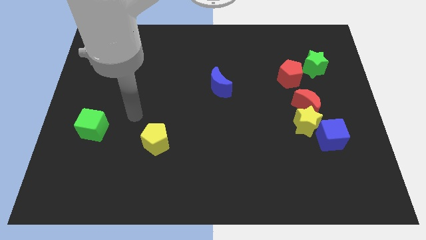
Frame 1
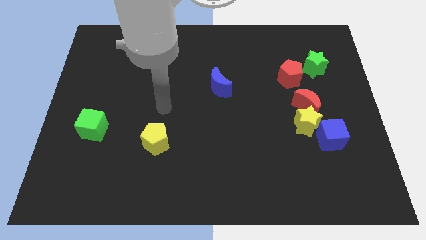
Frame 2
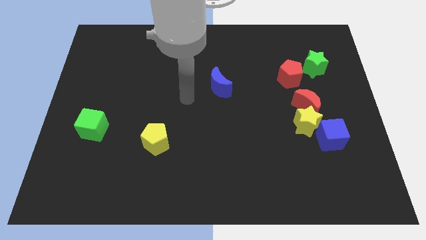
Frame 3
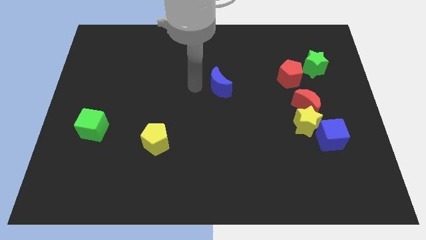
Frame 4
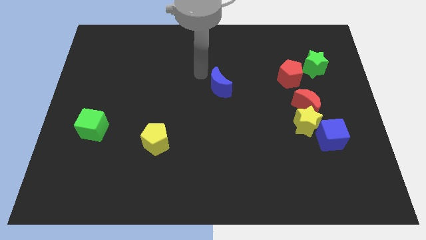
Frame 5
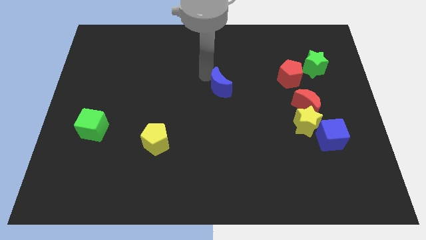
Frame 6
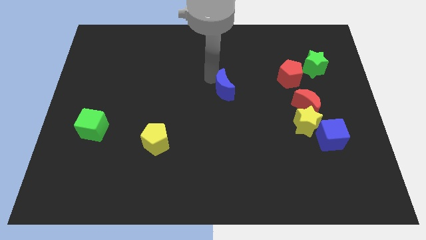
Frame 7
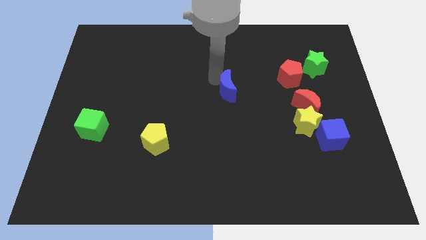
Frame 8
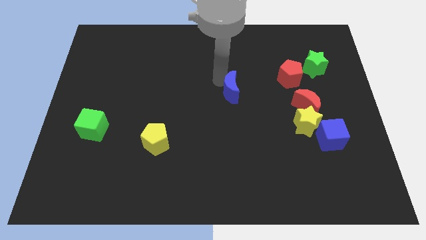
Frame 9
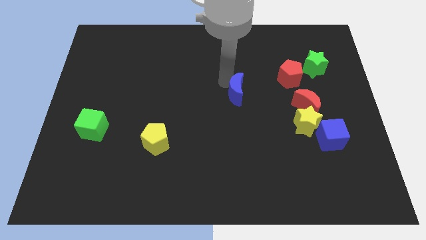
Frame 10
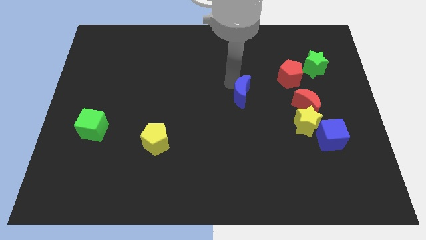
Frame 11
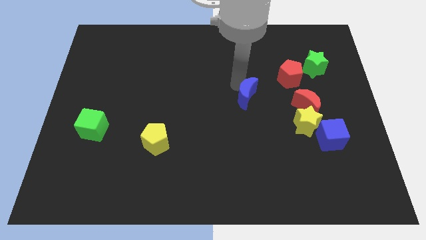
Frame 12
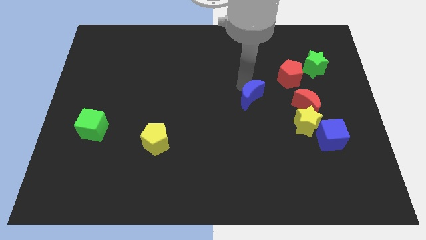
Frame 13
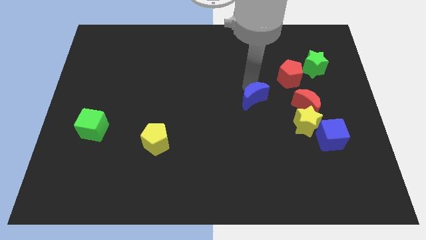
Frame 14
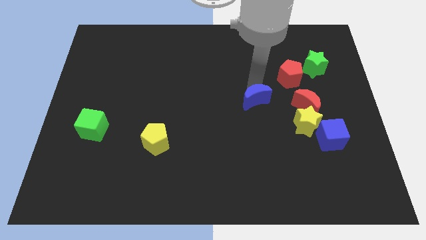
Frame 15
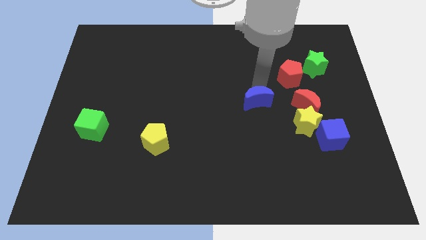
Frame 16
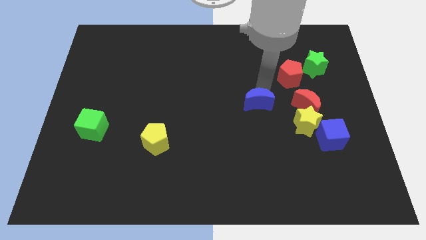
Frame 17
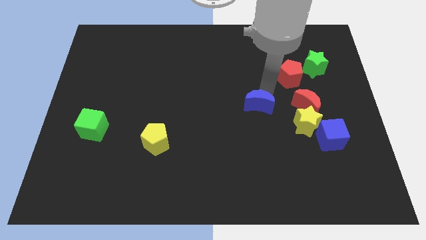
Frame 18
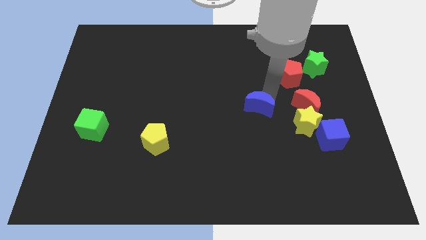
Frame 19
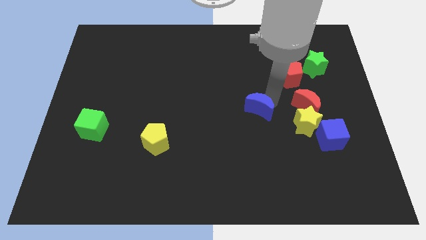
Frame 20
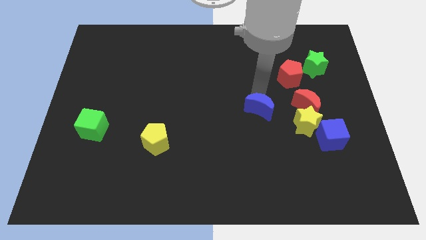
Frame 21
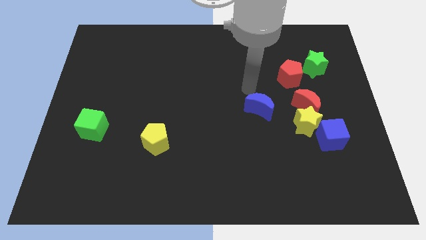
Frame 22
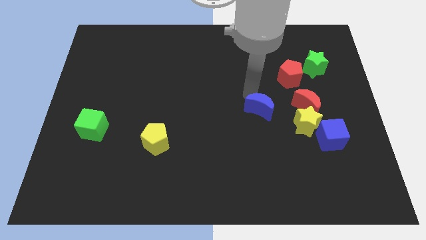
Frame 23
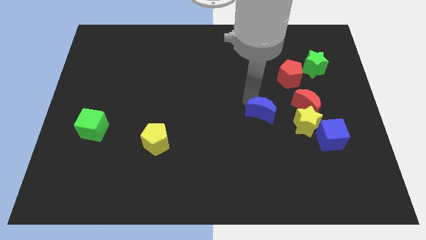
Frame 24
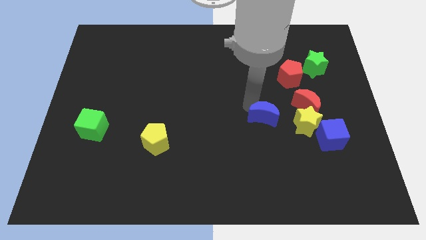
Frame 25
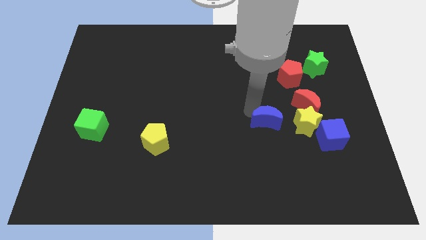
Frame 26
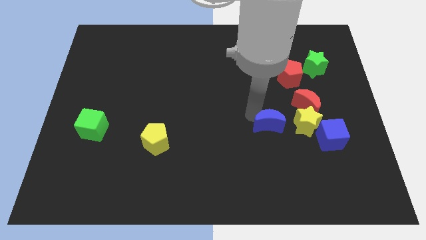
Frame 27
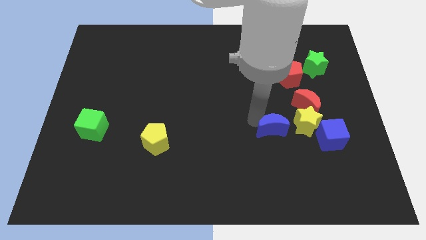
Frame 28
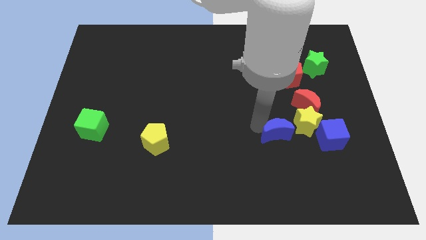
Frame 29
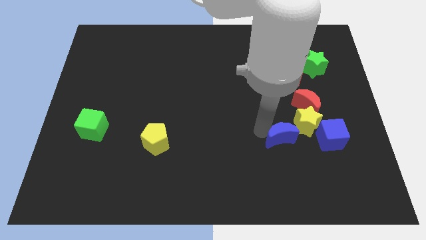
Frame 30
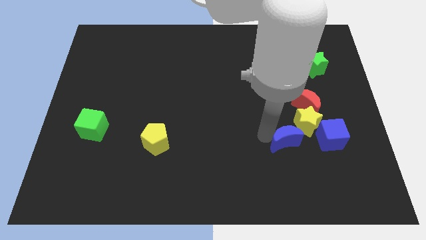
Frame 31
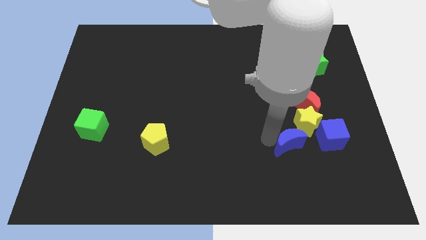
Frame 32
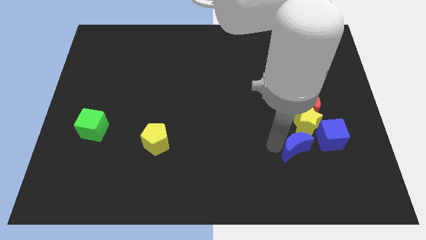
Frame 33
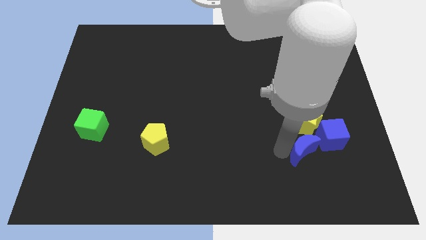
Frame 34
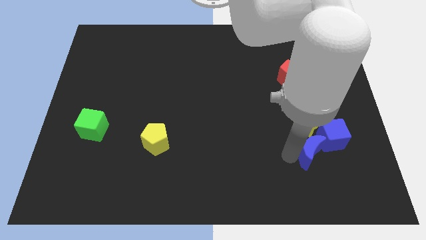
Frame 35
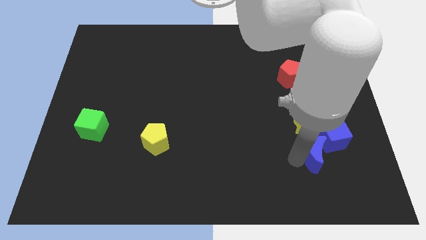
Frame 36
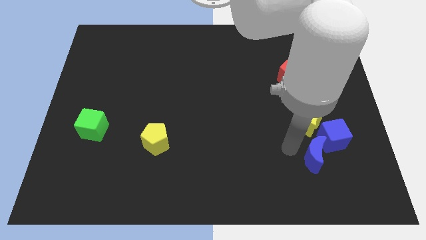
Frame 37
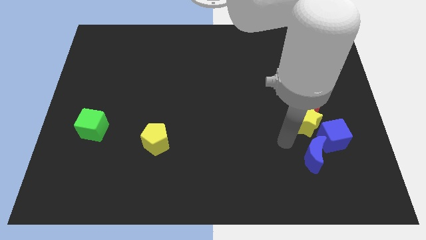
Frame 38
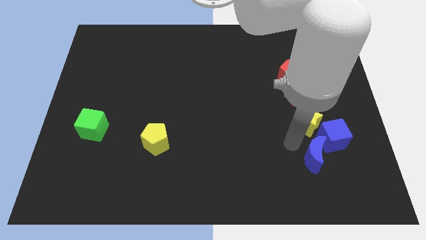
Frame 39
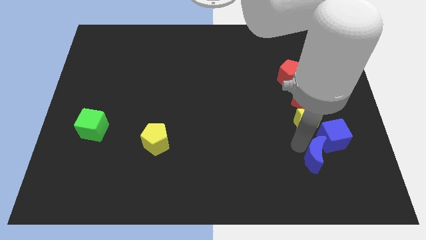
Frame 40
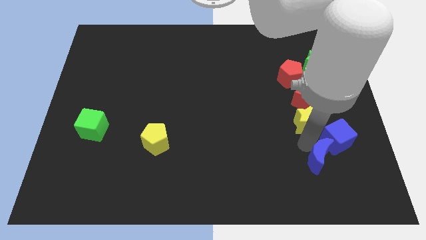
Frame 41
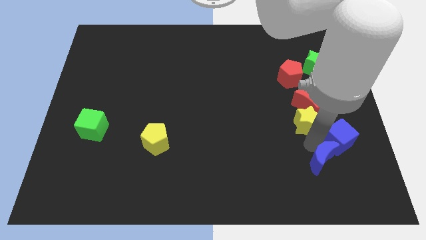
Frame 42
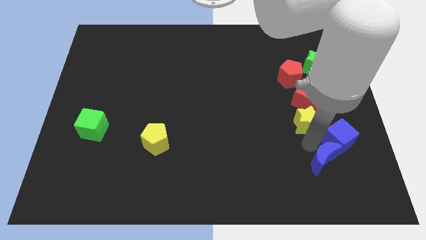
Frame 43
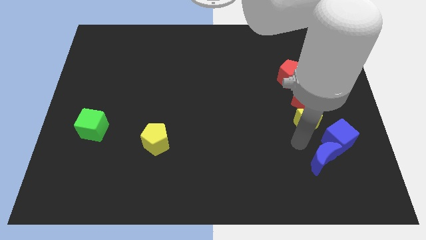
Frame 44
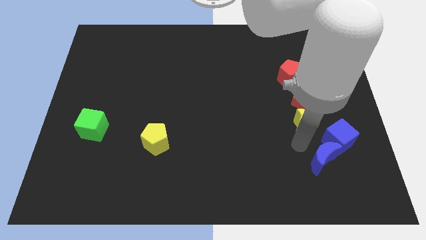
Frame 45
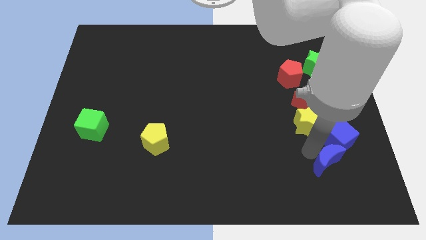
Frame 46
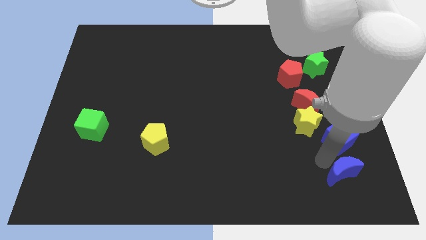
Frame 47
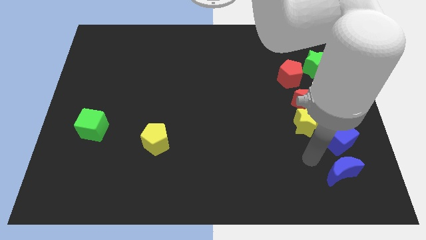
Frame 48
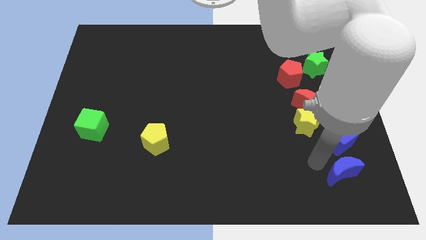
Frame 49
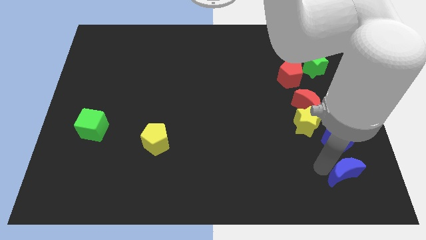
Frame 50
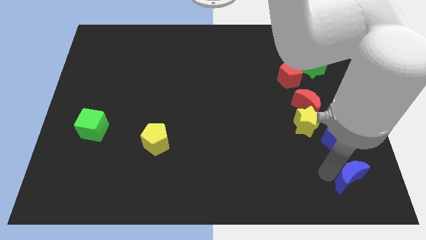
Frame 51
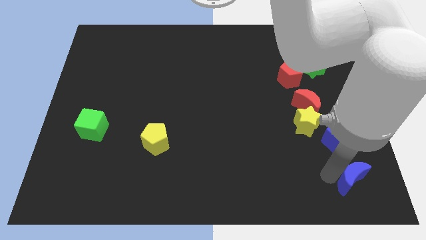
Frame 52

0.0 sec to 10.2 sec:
slide the blue moon to the bottom right
